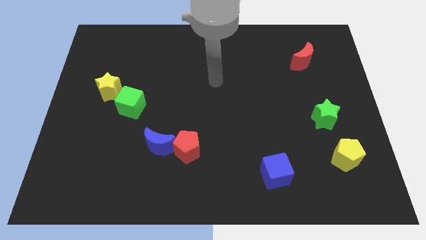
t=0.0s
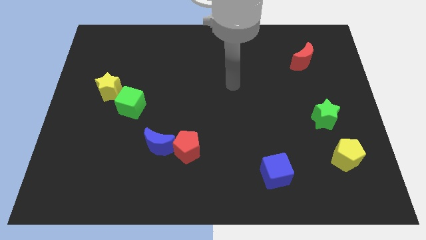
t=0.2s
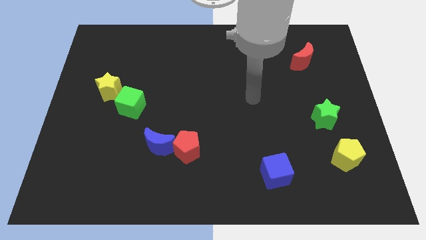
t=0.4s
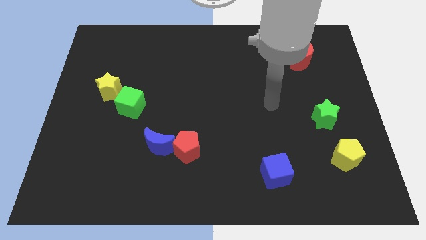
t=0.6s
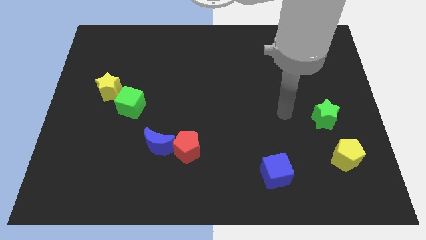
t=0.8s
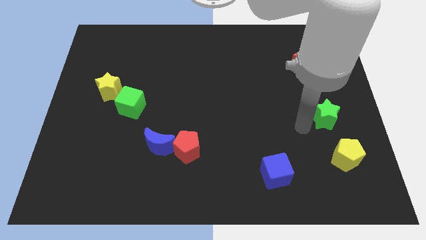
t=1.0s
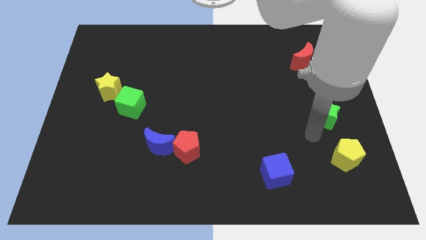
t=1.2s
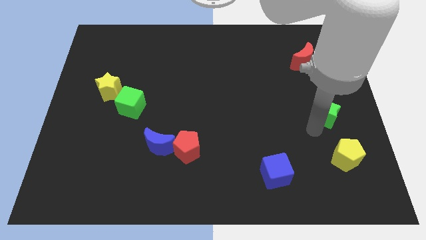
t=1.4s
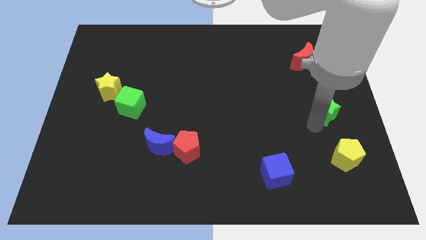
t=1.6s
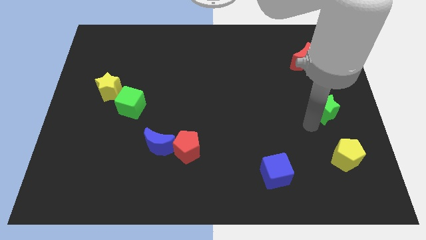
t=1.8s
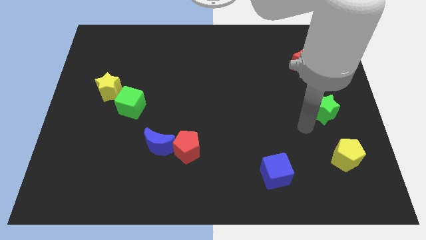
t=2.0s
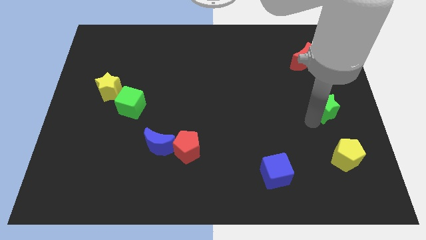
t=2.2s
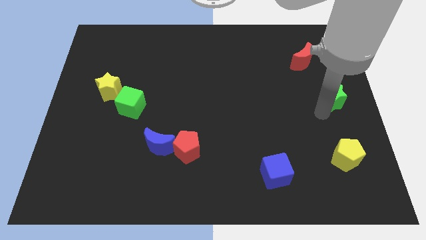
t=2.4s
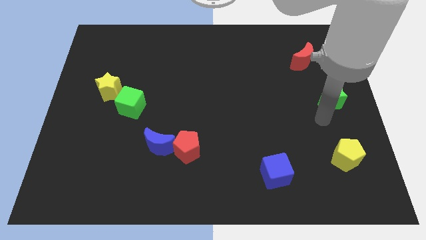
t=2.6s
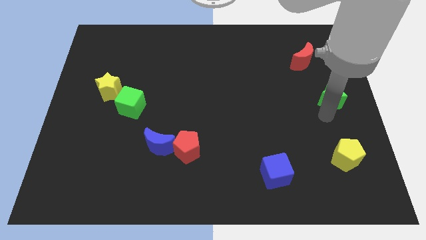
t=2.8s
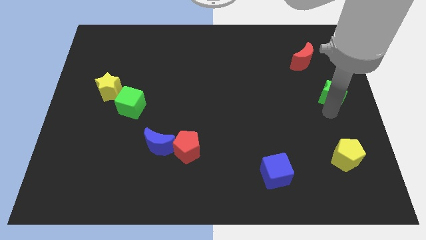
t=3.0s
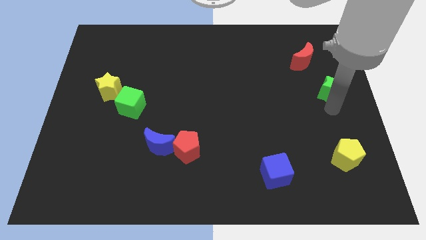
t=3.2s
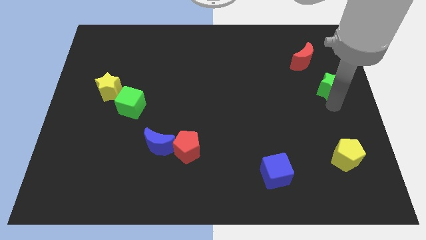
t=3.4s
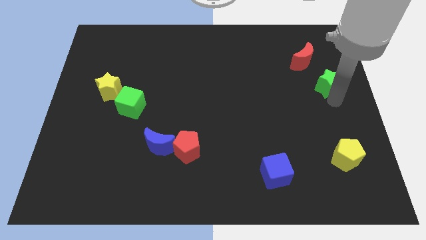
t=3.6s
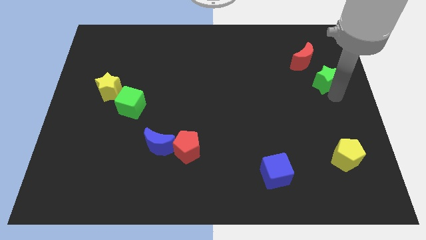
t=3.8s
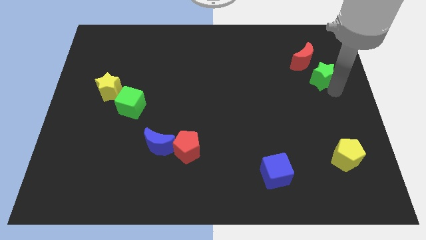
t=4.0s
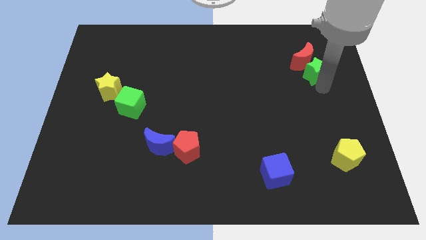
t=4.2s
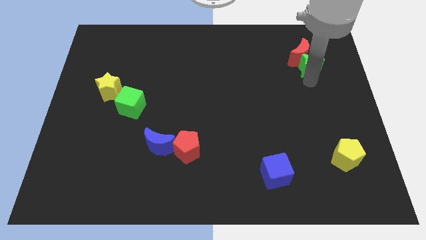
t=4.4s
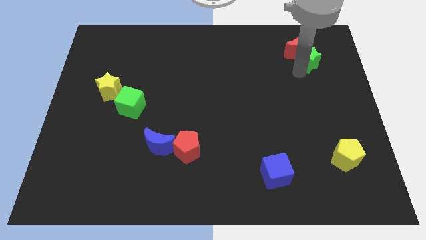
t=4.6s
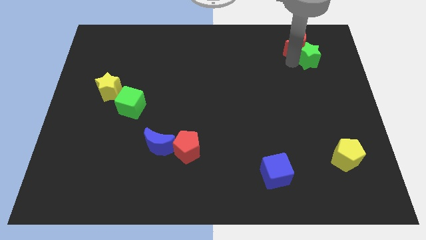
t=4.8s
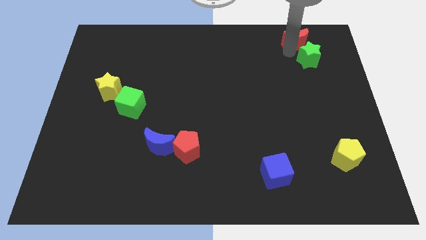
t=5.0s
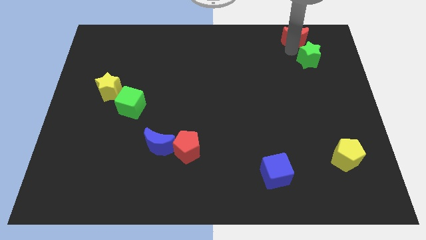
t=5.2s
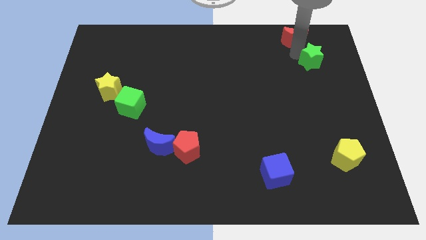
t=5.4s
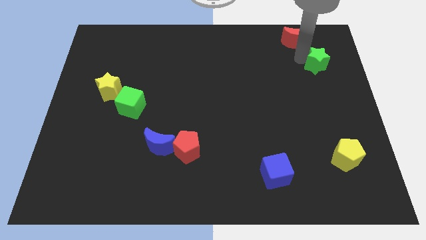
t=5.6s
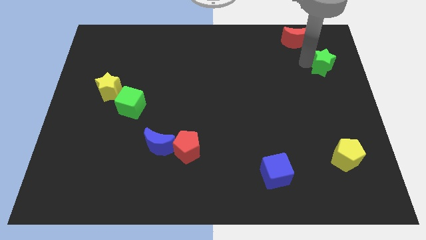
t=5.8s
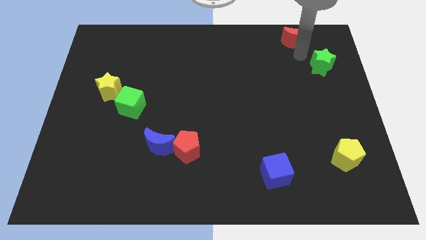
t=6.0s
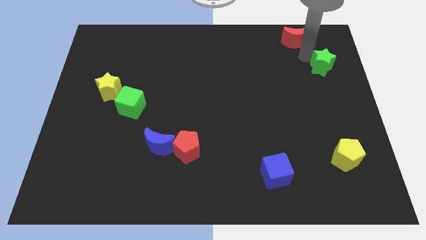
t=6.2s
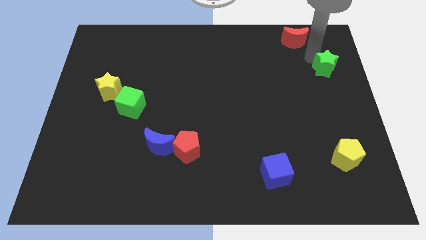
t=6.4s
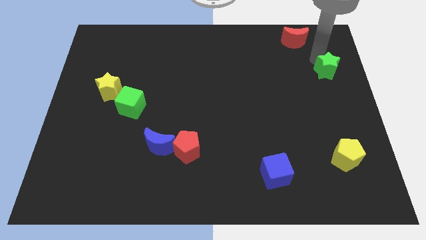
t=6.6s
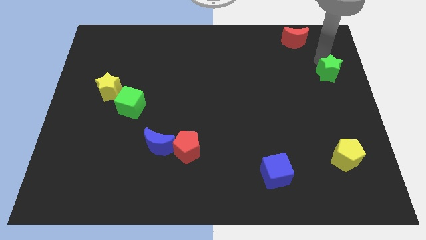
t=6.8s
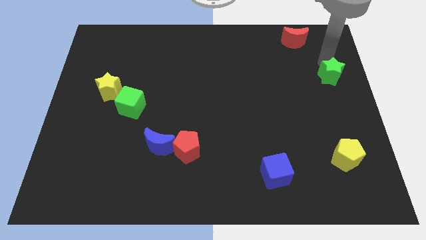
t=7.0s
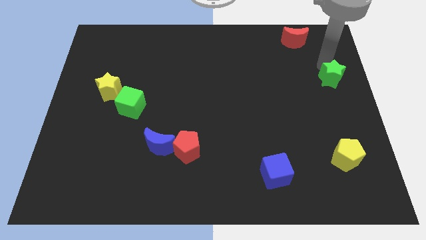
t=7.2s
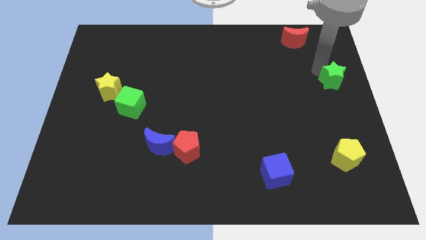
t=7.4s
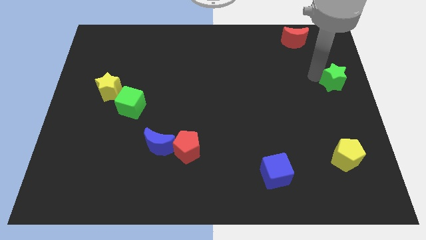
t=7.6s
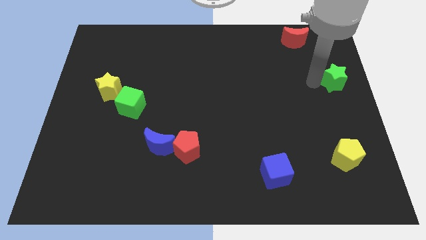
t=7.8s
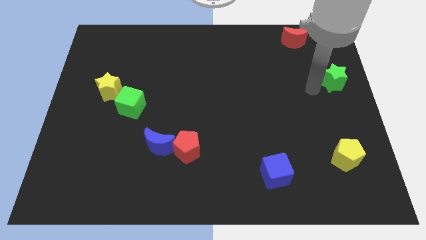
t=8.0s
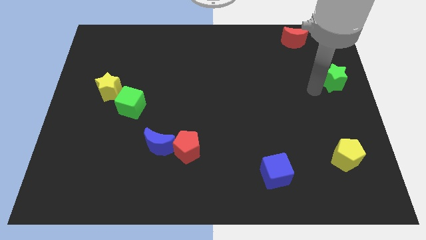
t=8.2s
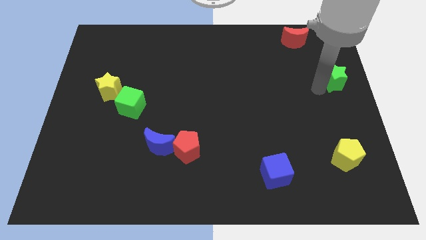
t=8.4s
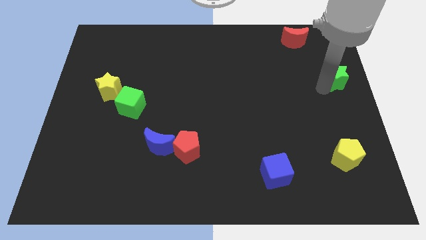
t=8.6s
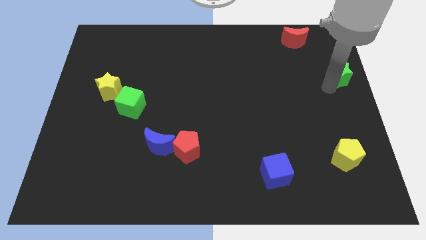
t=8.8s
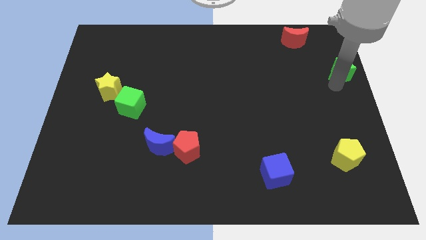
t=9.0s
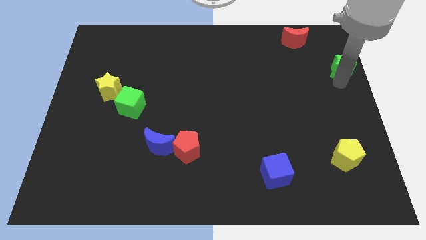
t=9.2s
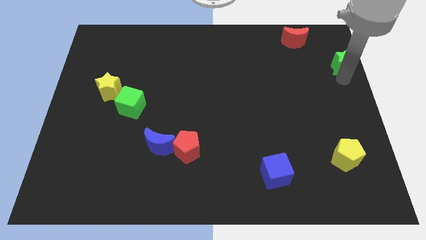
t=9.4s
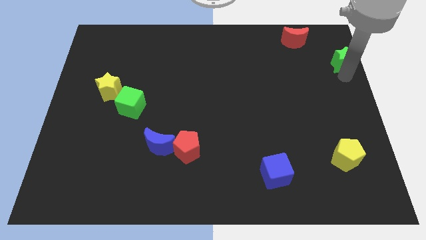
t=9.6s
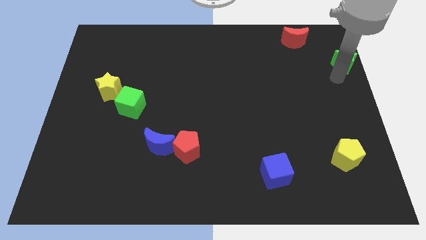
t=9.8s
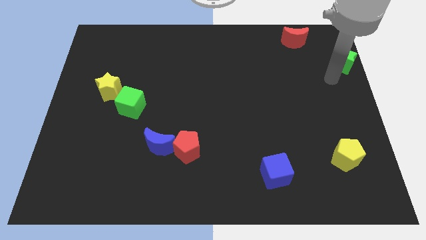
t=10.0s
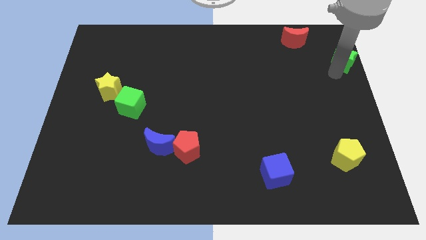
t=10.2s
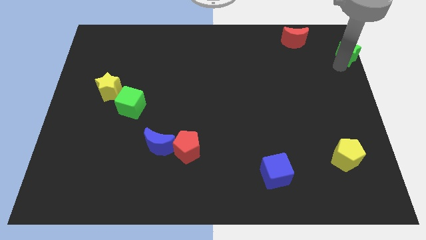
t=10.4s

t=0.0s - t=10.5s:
slide the green star to the top right corner
